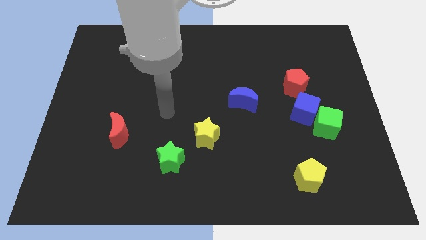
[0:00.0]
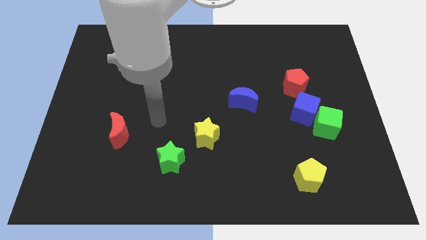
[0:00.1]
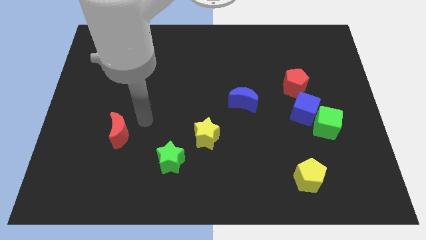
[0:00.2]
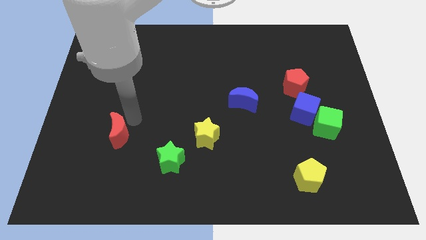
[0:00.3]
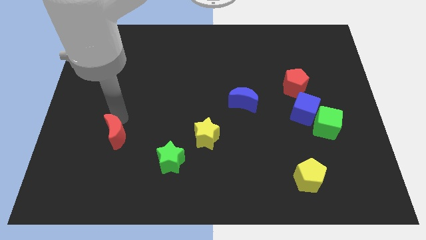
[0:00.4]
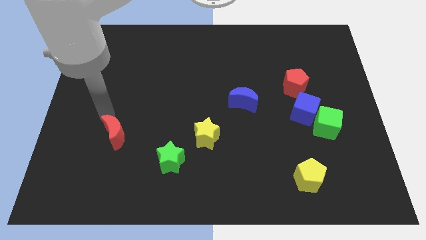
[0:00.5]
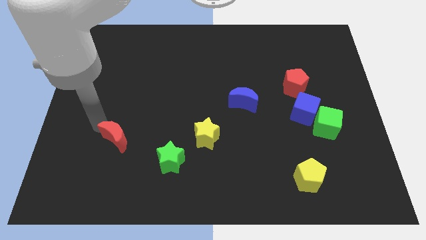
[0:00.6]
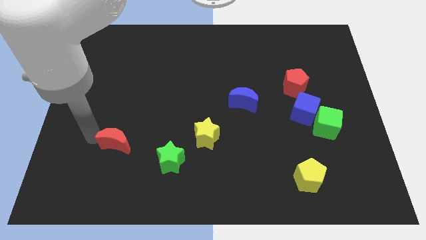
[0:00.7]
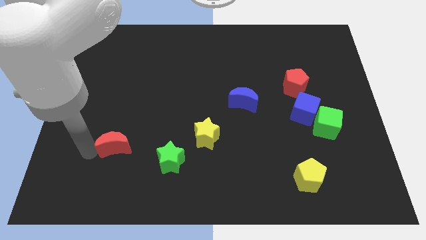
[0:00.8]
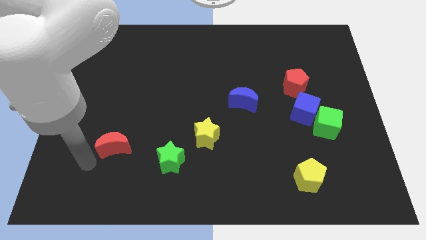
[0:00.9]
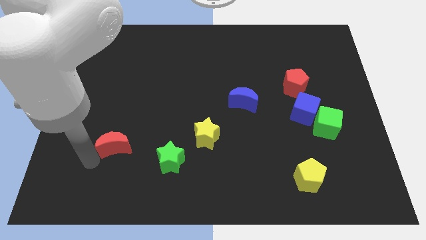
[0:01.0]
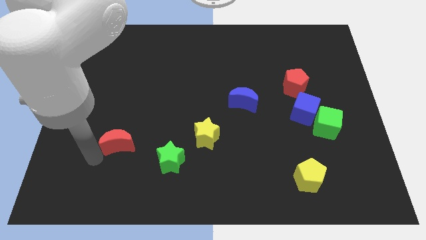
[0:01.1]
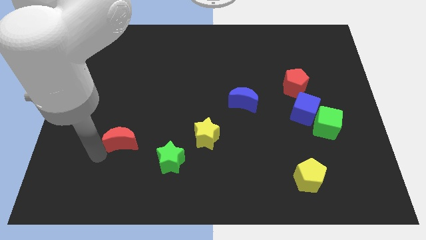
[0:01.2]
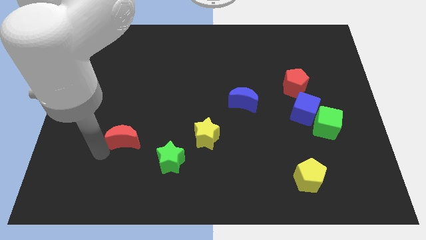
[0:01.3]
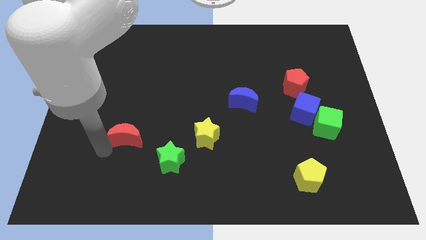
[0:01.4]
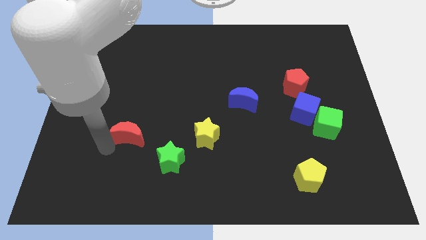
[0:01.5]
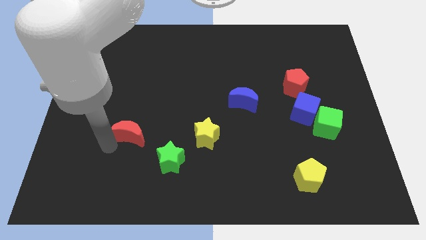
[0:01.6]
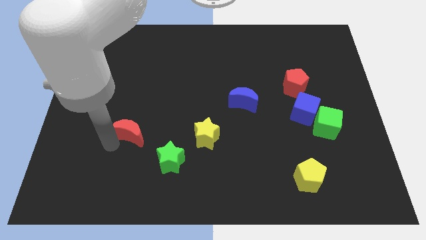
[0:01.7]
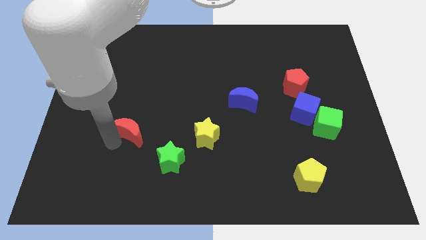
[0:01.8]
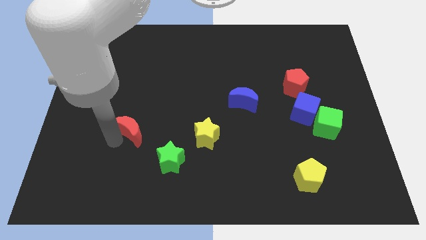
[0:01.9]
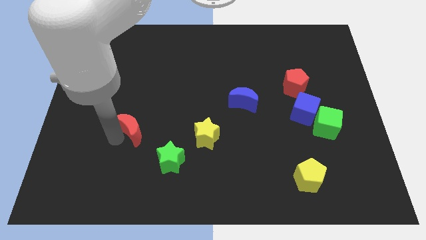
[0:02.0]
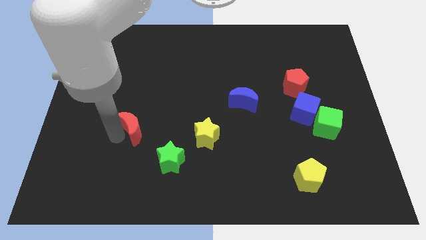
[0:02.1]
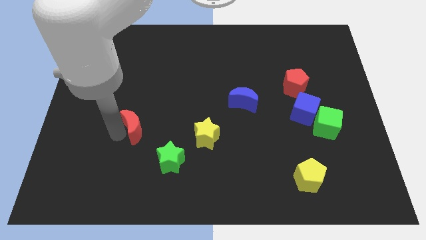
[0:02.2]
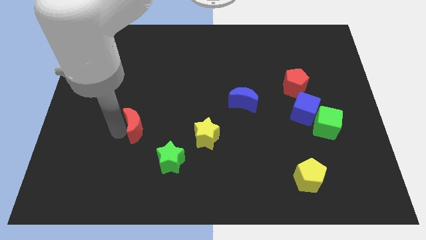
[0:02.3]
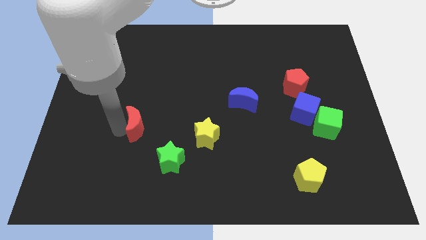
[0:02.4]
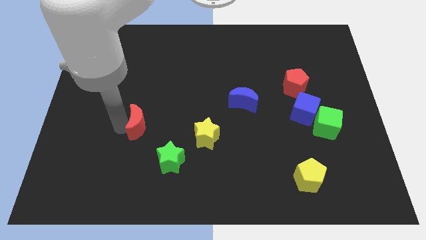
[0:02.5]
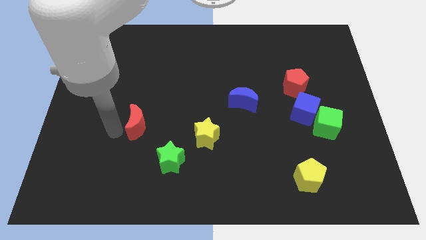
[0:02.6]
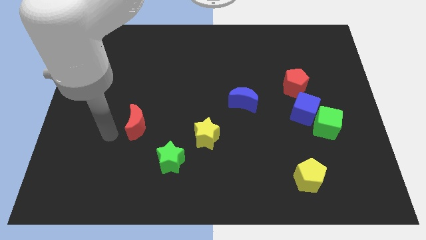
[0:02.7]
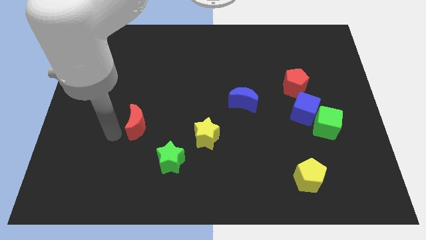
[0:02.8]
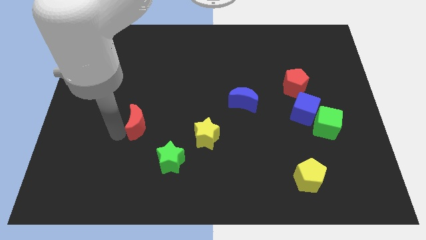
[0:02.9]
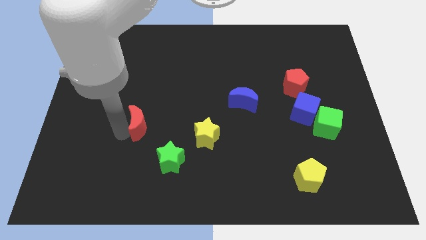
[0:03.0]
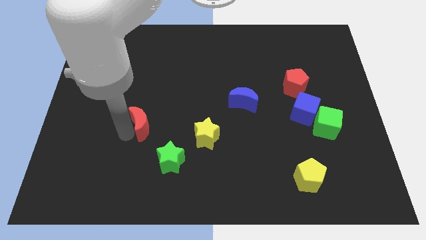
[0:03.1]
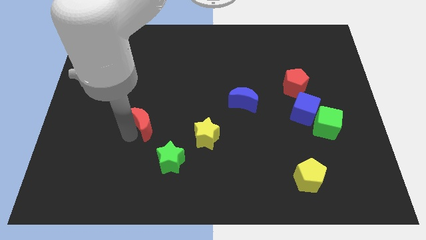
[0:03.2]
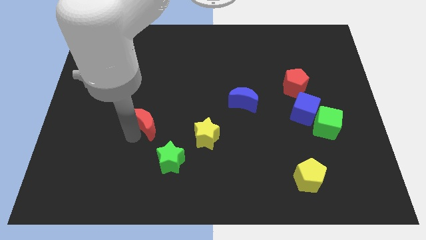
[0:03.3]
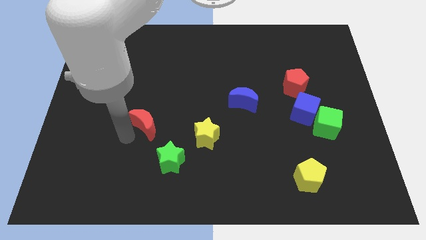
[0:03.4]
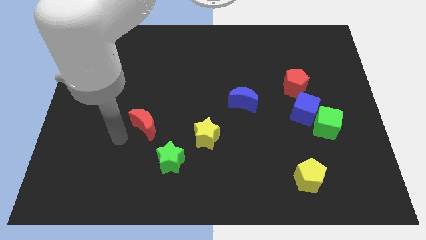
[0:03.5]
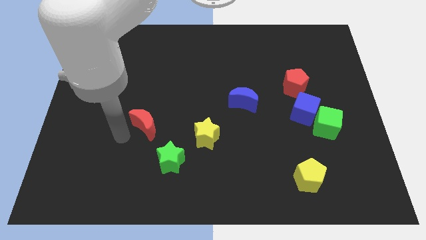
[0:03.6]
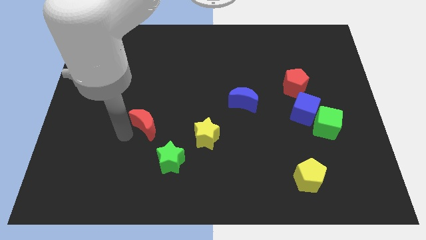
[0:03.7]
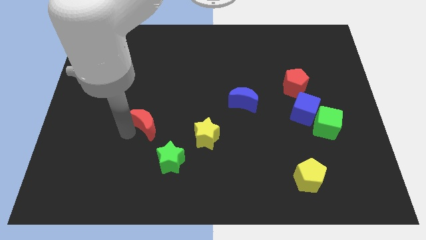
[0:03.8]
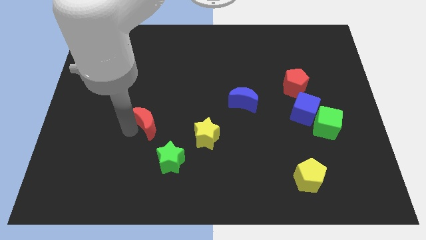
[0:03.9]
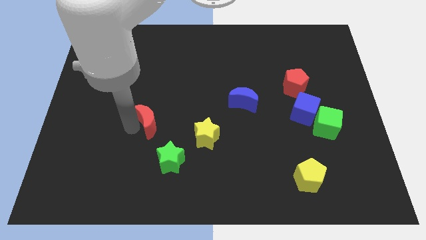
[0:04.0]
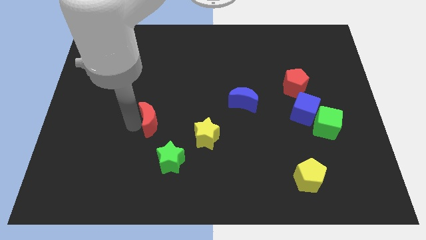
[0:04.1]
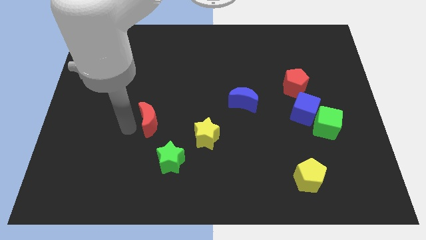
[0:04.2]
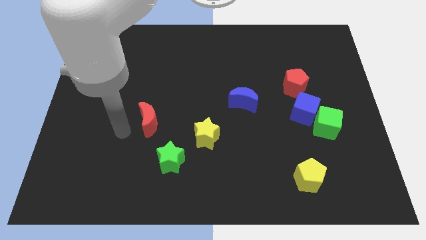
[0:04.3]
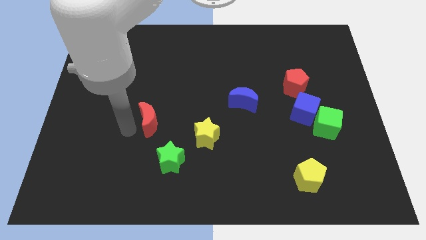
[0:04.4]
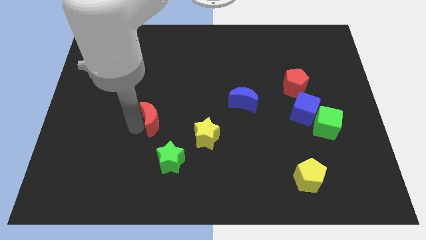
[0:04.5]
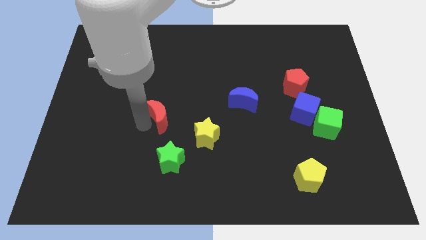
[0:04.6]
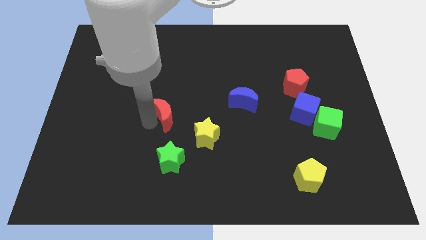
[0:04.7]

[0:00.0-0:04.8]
slide the red moon to the middle

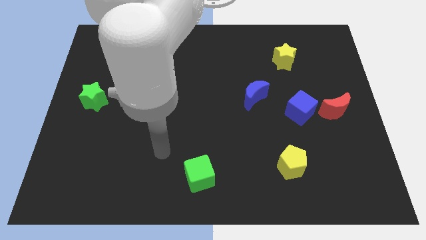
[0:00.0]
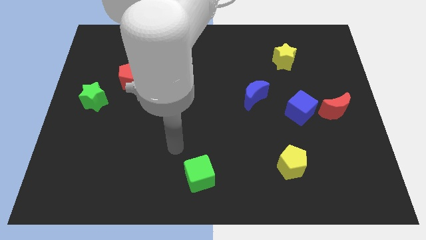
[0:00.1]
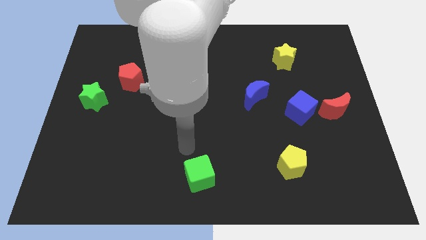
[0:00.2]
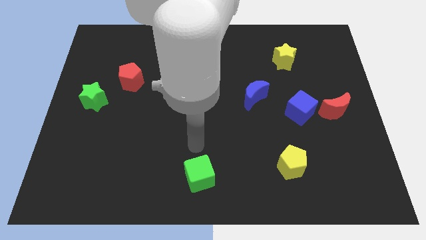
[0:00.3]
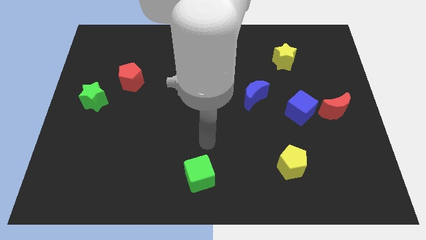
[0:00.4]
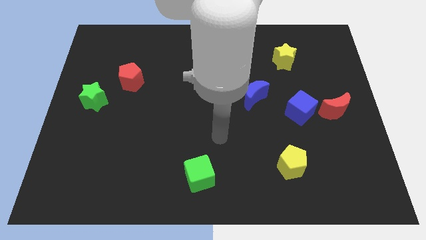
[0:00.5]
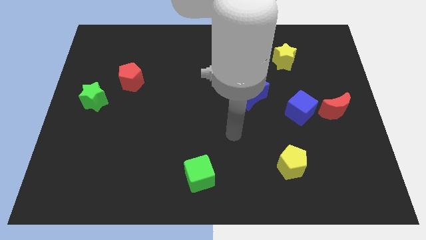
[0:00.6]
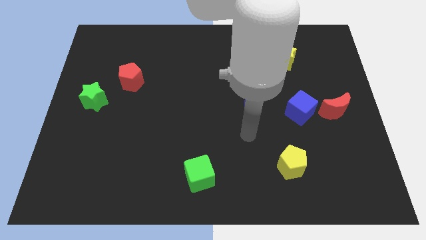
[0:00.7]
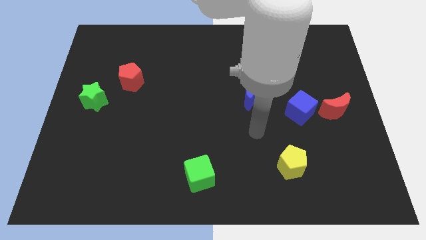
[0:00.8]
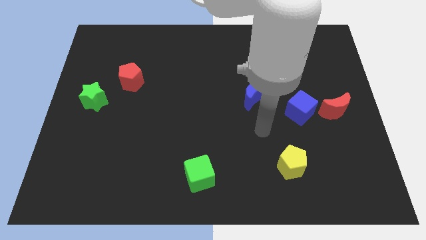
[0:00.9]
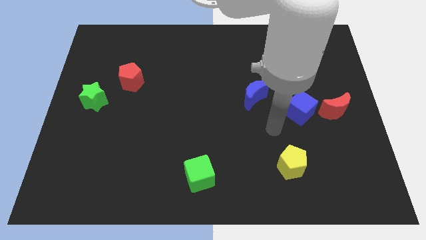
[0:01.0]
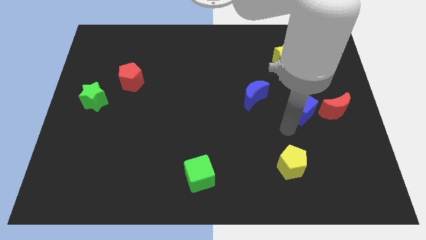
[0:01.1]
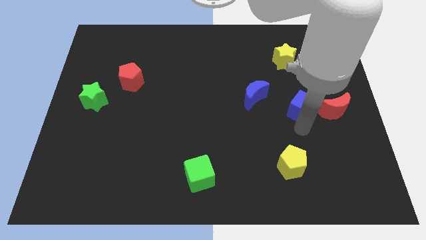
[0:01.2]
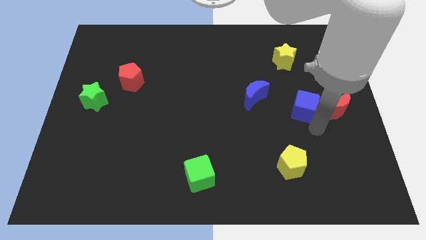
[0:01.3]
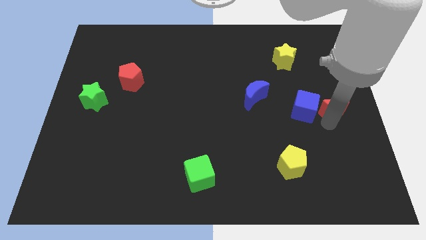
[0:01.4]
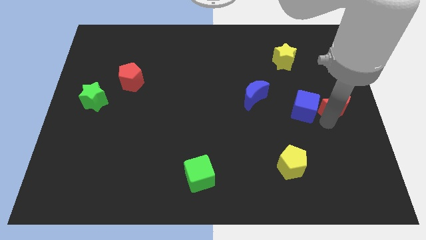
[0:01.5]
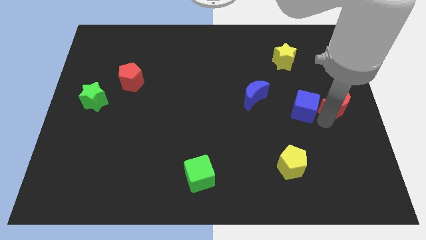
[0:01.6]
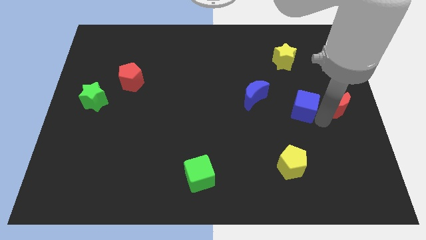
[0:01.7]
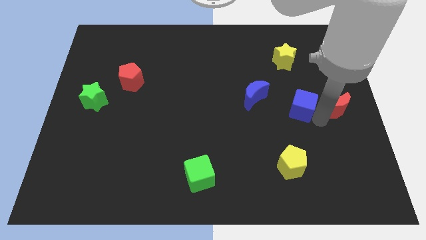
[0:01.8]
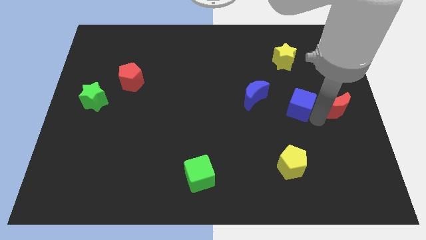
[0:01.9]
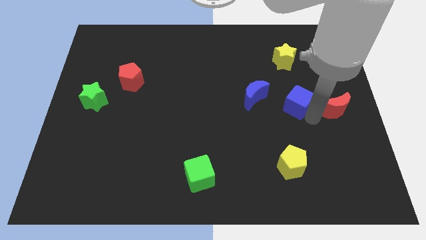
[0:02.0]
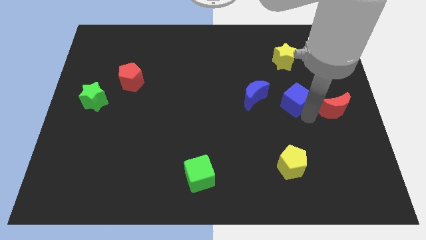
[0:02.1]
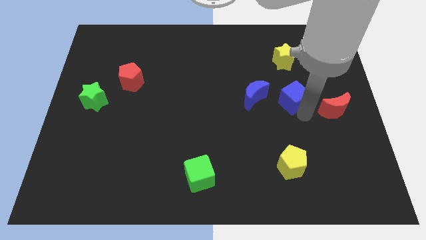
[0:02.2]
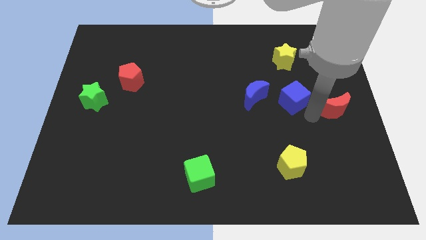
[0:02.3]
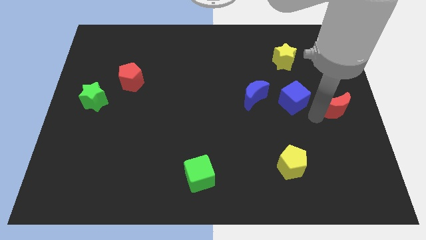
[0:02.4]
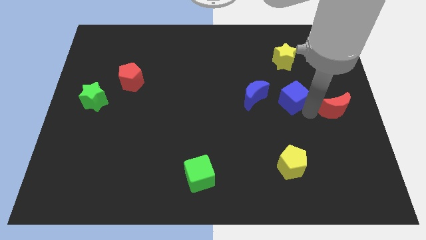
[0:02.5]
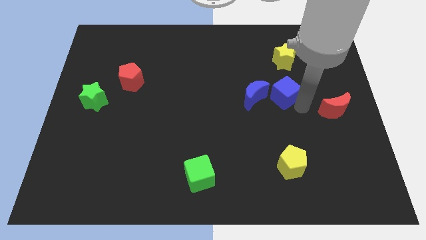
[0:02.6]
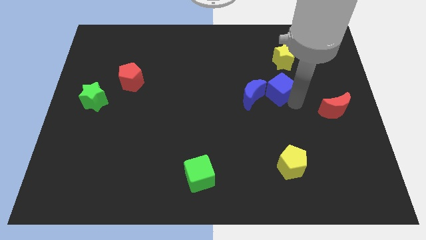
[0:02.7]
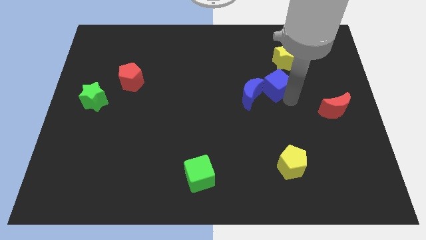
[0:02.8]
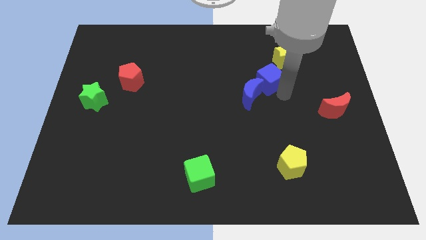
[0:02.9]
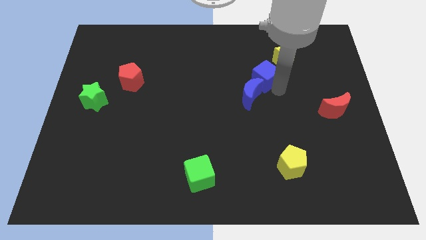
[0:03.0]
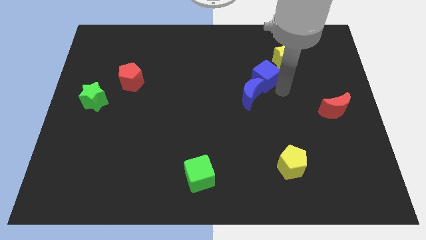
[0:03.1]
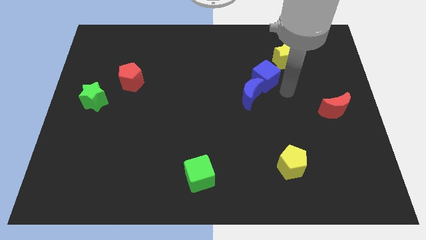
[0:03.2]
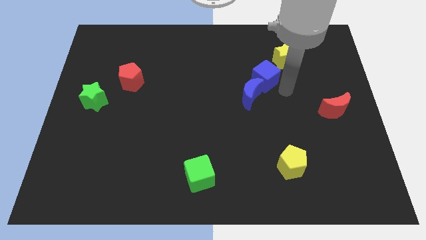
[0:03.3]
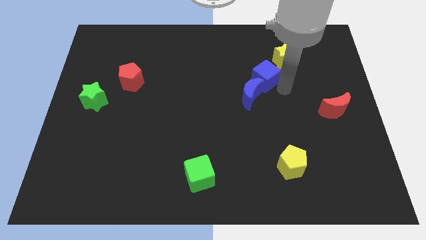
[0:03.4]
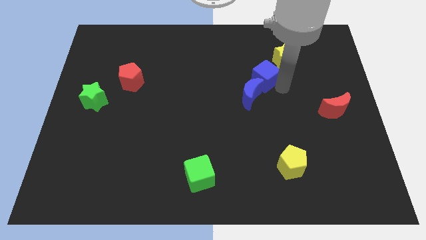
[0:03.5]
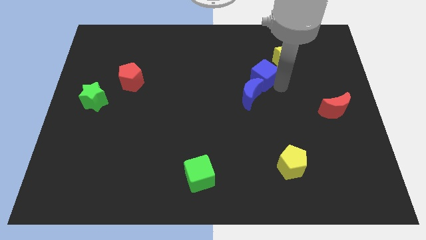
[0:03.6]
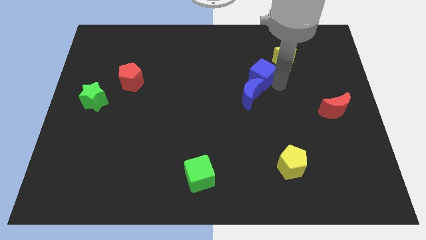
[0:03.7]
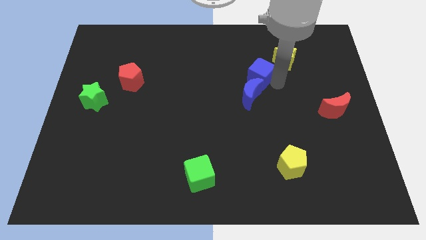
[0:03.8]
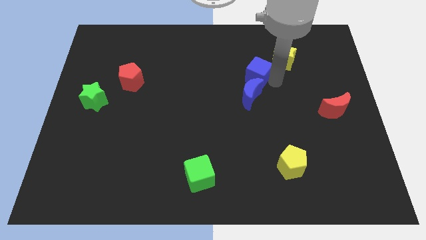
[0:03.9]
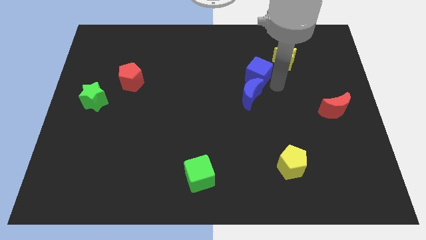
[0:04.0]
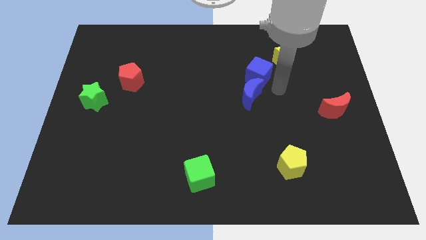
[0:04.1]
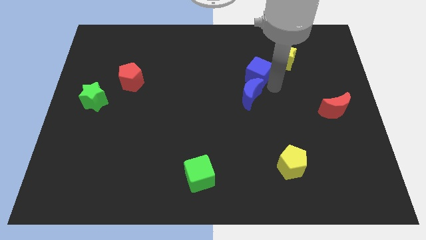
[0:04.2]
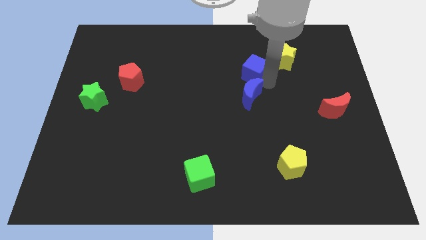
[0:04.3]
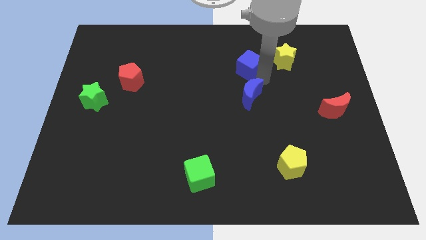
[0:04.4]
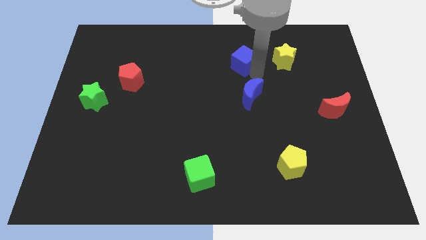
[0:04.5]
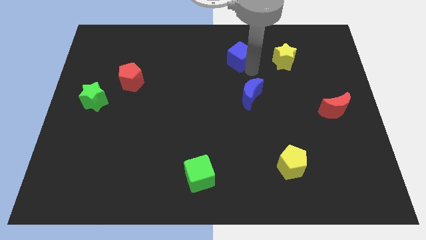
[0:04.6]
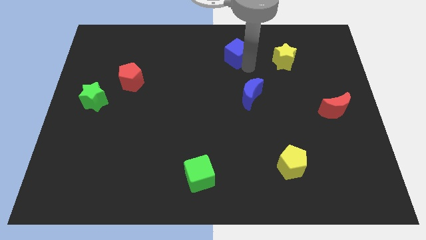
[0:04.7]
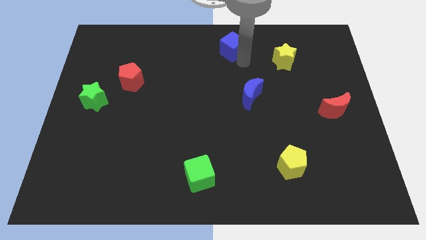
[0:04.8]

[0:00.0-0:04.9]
move the blue cube to the top
